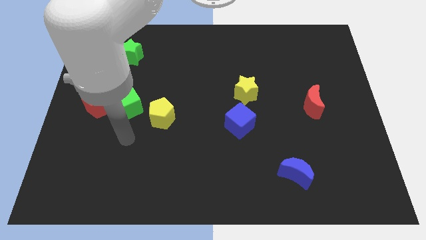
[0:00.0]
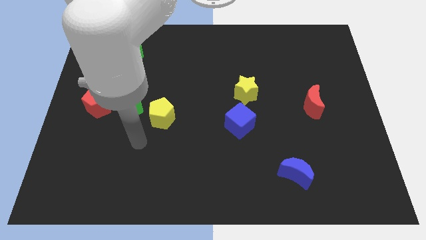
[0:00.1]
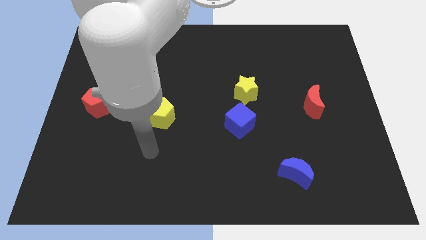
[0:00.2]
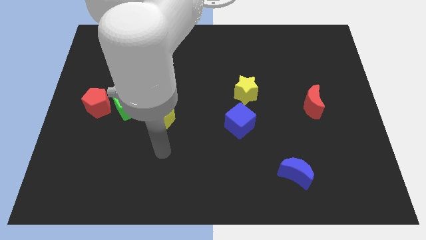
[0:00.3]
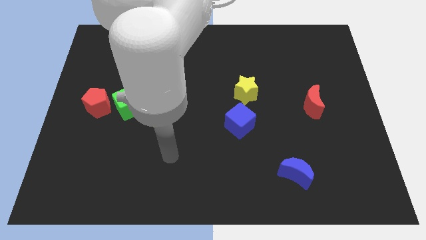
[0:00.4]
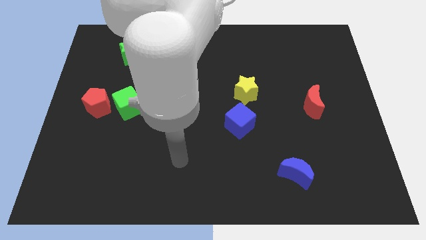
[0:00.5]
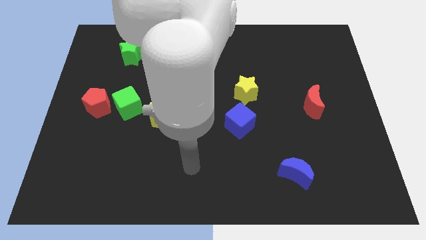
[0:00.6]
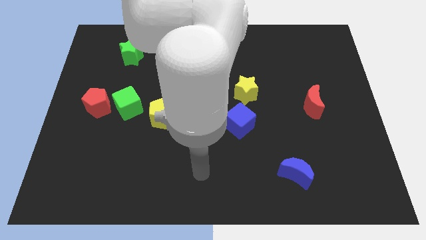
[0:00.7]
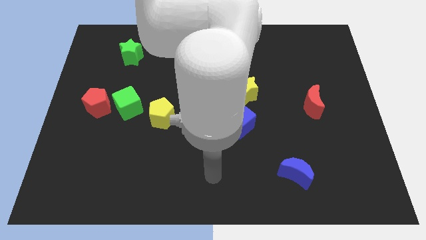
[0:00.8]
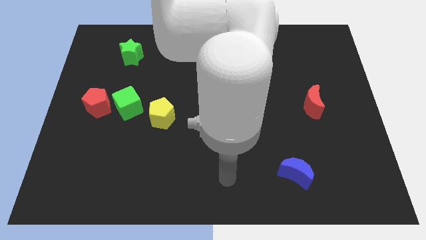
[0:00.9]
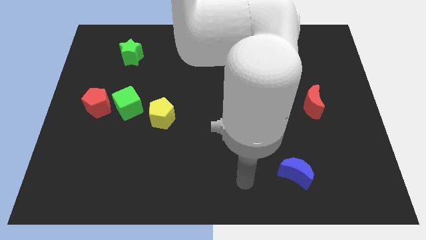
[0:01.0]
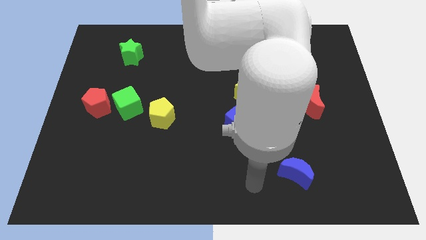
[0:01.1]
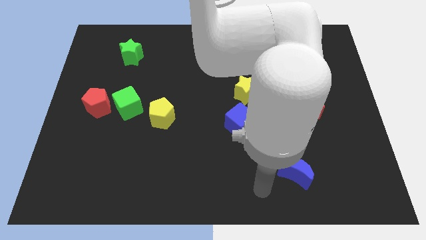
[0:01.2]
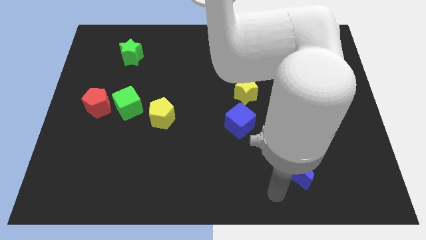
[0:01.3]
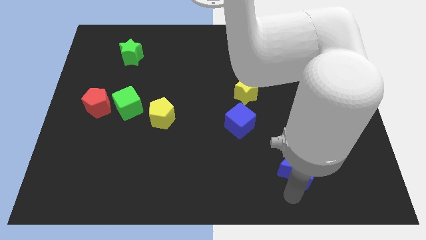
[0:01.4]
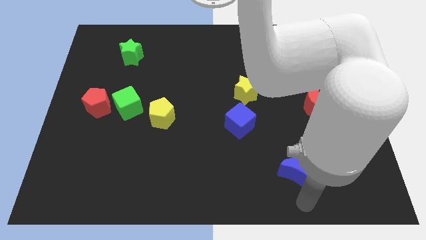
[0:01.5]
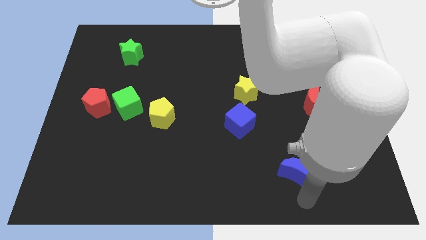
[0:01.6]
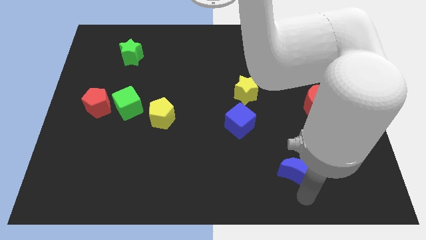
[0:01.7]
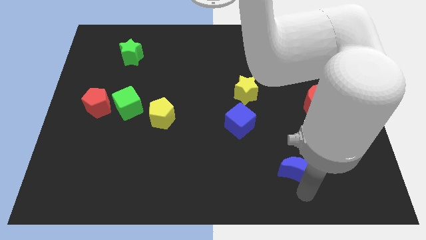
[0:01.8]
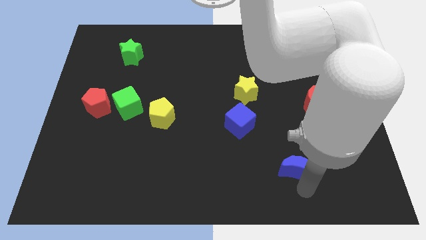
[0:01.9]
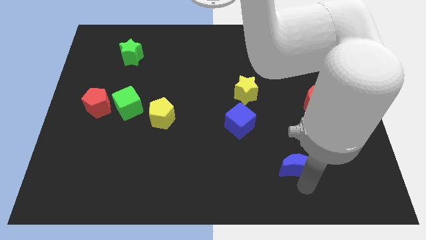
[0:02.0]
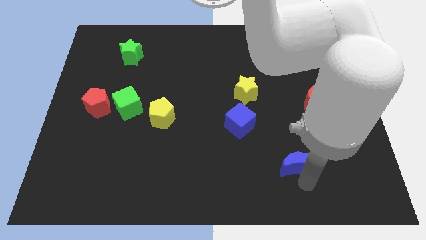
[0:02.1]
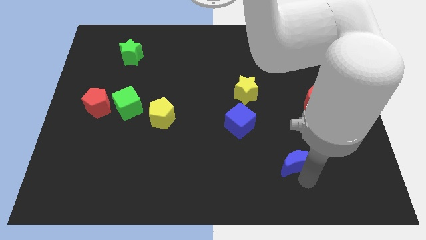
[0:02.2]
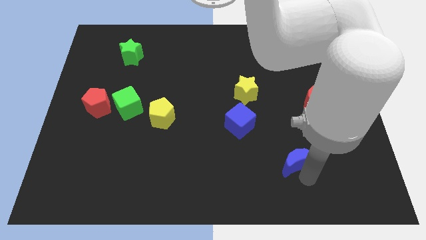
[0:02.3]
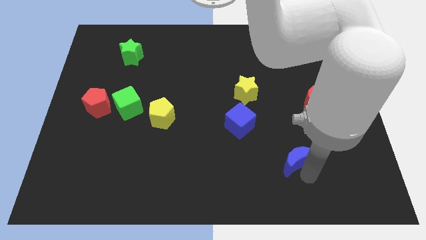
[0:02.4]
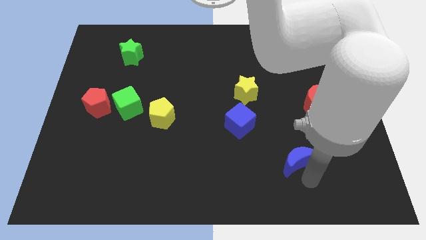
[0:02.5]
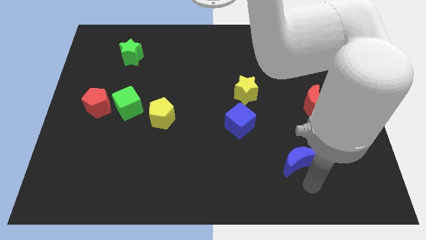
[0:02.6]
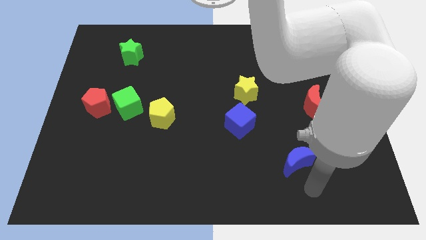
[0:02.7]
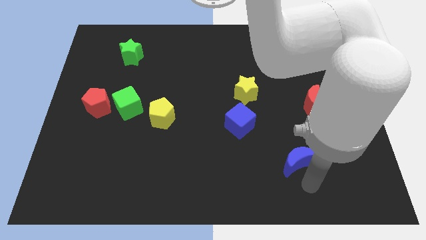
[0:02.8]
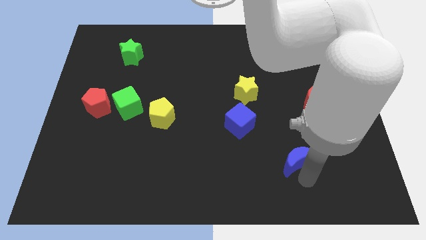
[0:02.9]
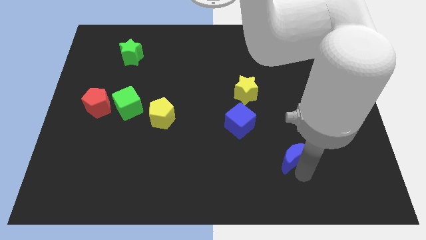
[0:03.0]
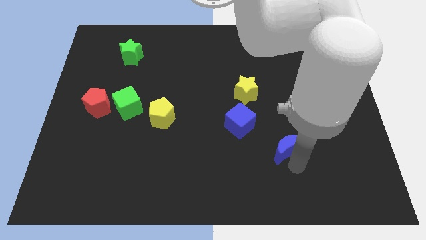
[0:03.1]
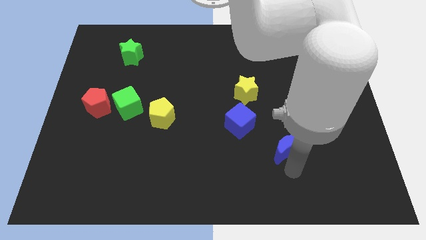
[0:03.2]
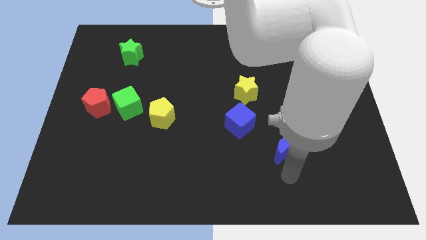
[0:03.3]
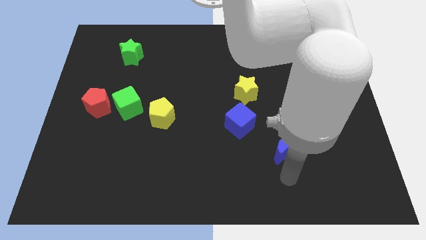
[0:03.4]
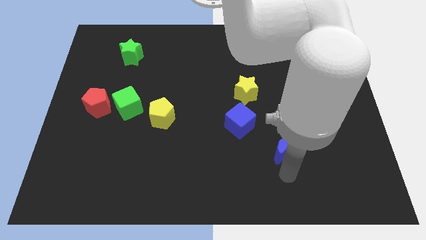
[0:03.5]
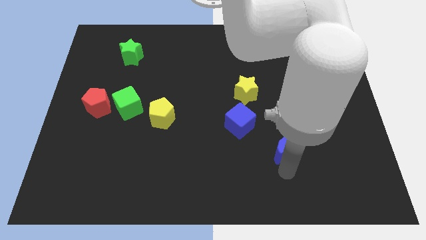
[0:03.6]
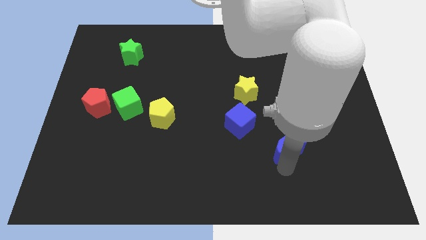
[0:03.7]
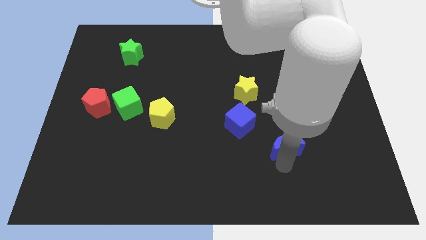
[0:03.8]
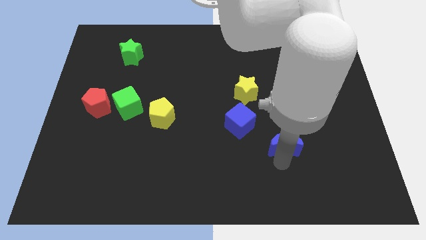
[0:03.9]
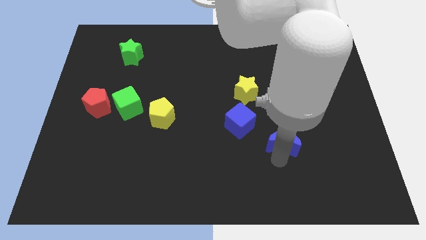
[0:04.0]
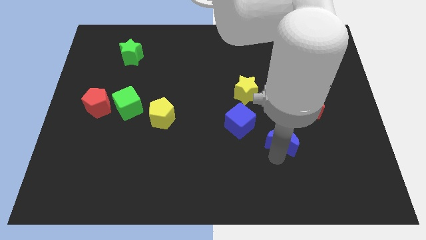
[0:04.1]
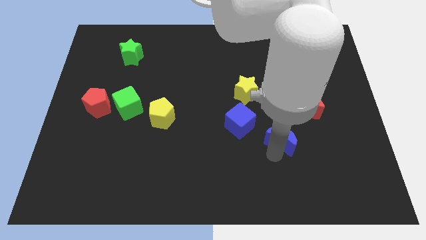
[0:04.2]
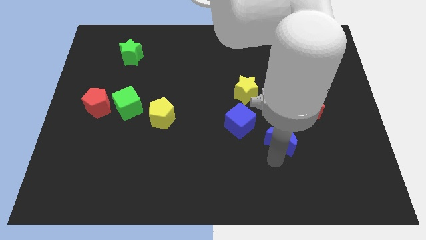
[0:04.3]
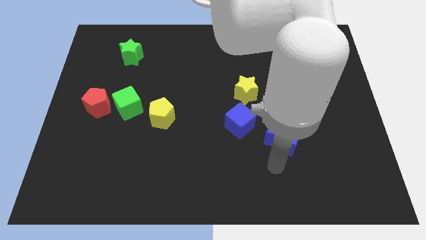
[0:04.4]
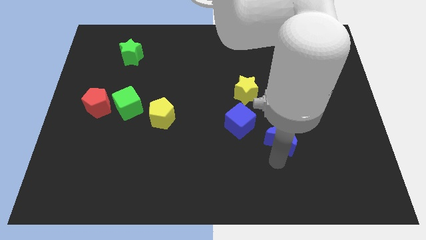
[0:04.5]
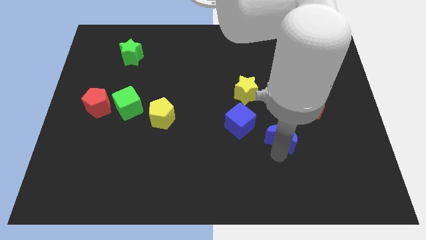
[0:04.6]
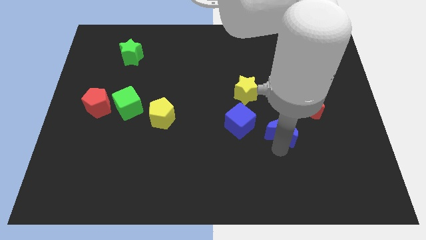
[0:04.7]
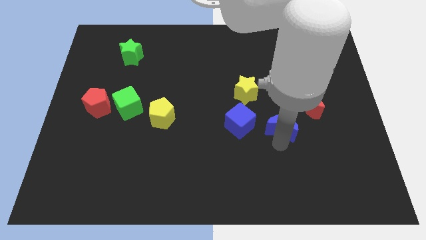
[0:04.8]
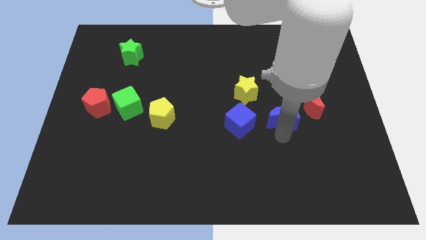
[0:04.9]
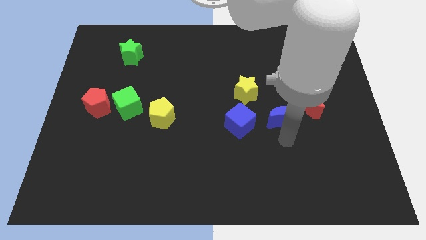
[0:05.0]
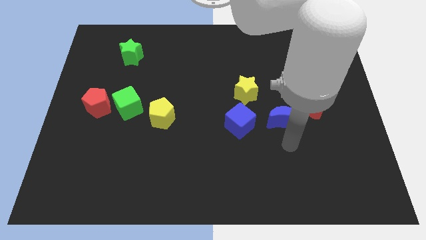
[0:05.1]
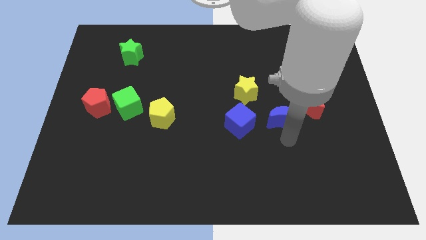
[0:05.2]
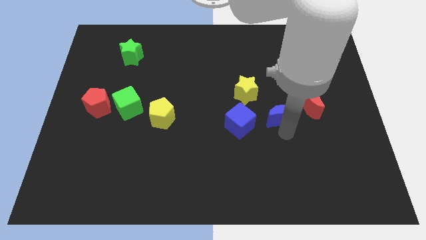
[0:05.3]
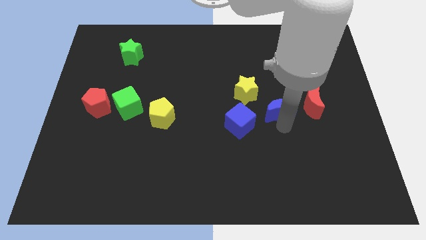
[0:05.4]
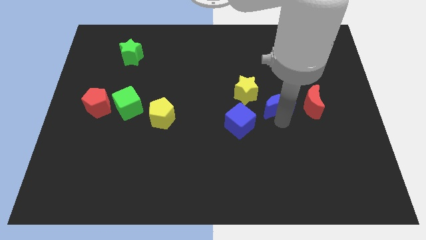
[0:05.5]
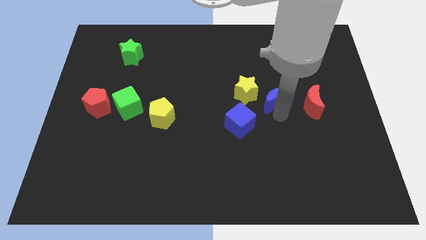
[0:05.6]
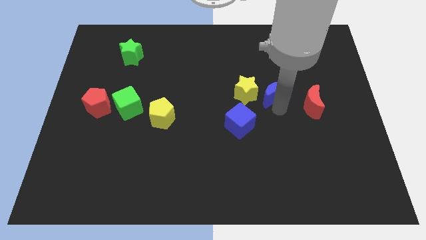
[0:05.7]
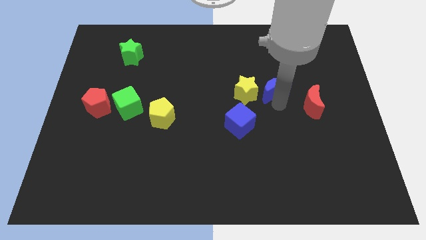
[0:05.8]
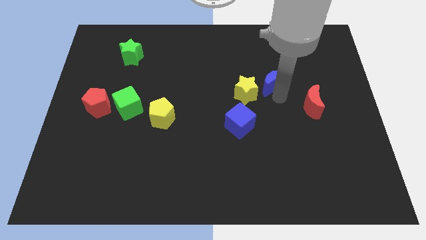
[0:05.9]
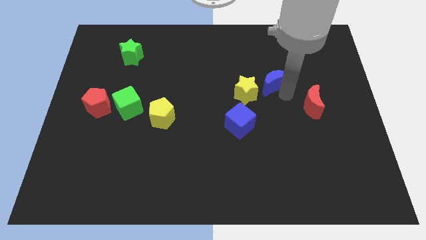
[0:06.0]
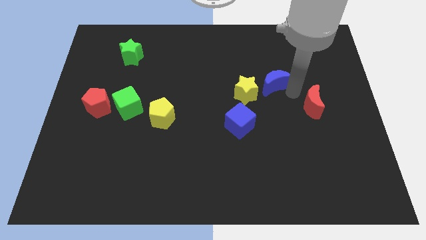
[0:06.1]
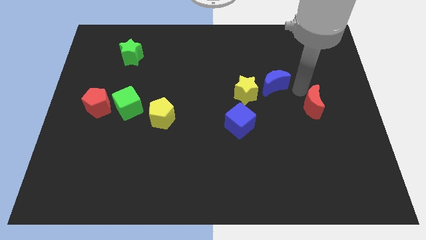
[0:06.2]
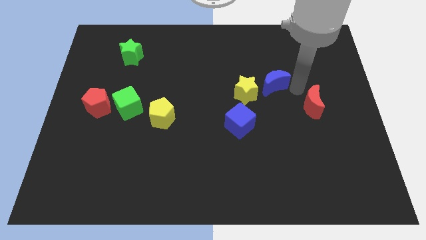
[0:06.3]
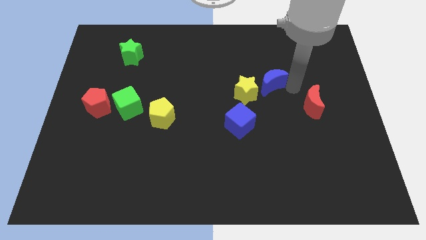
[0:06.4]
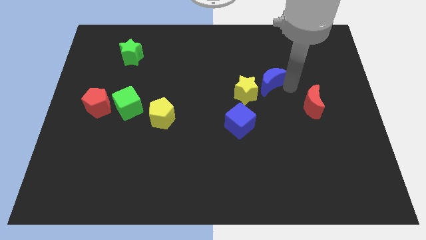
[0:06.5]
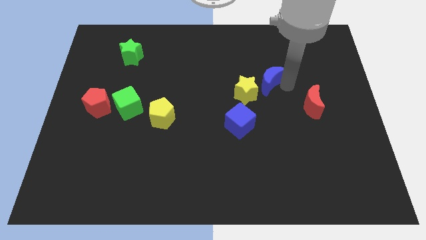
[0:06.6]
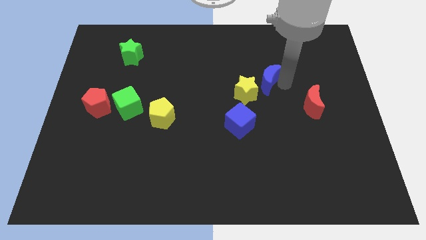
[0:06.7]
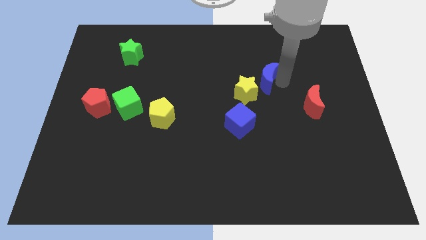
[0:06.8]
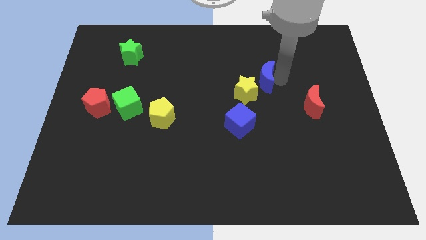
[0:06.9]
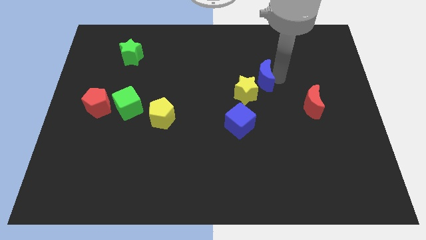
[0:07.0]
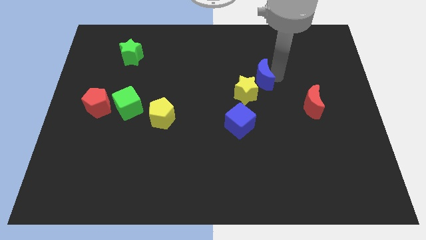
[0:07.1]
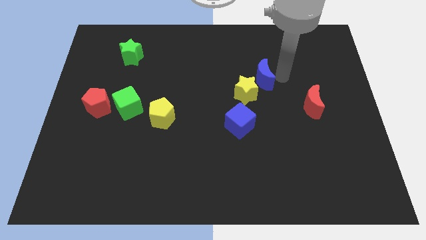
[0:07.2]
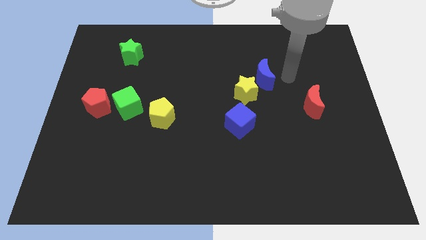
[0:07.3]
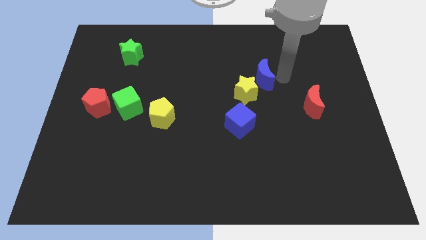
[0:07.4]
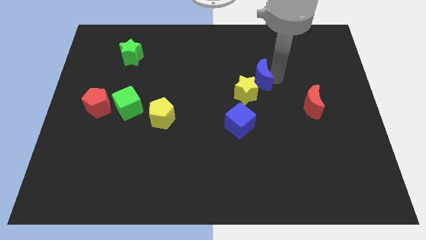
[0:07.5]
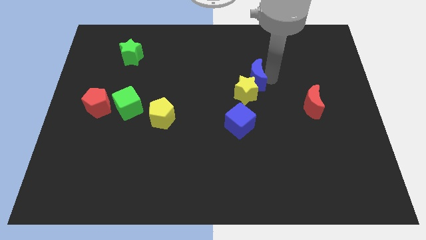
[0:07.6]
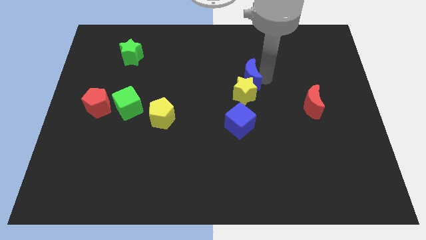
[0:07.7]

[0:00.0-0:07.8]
move the blue moon above the blue cube
